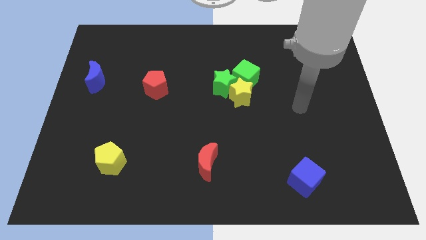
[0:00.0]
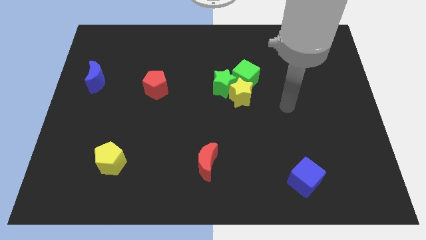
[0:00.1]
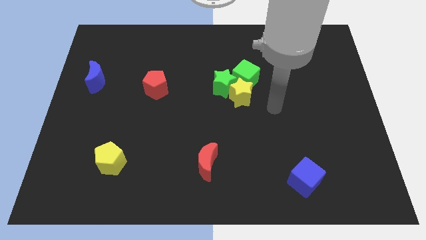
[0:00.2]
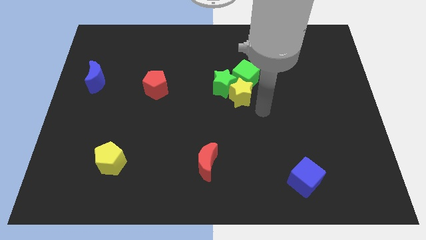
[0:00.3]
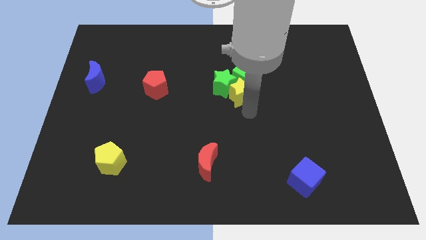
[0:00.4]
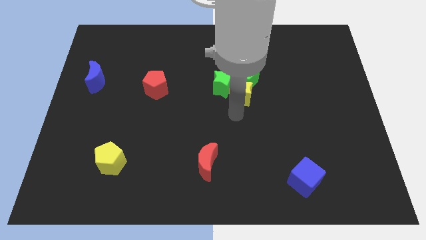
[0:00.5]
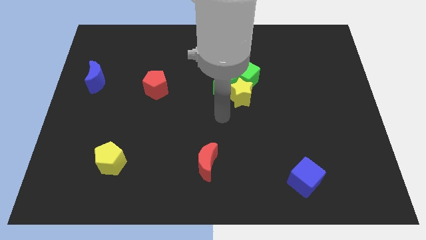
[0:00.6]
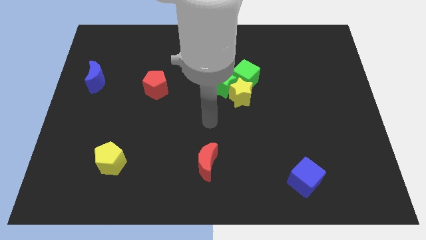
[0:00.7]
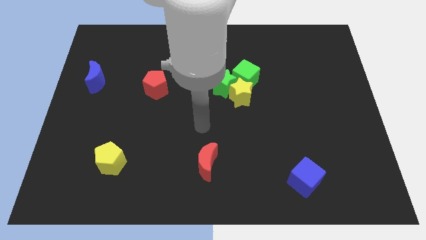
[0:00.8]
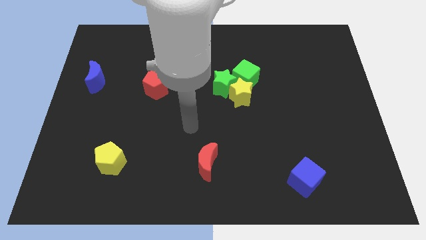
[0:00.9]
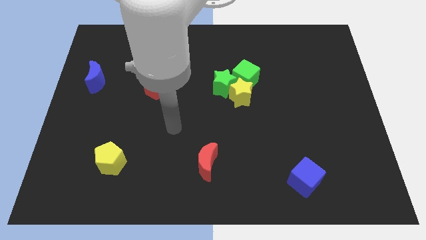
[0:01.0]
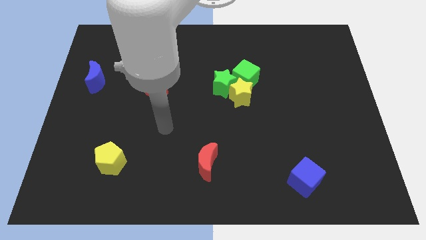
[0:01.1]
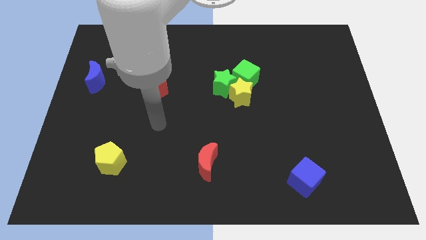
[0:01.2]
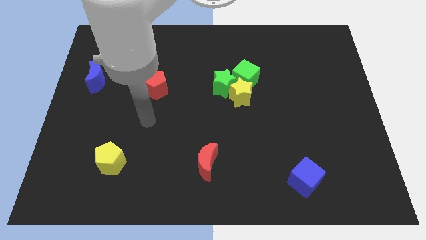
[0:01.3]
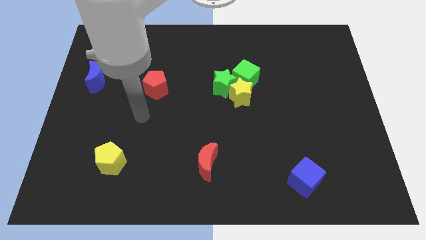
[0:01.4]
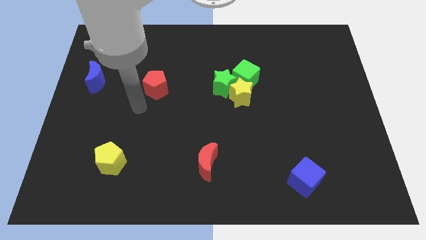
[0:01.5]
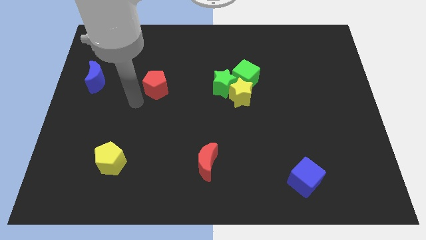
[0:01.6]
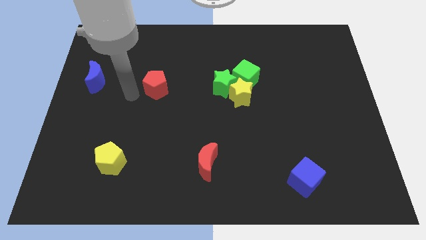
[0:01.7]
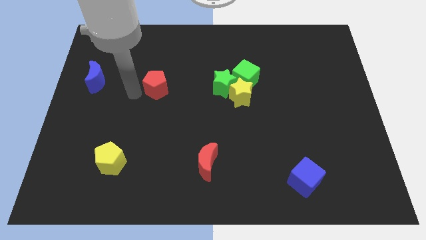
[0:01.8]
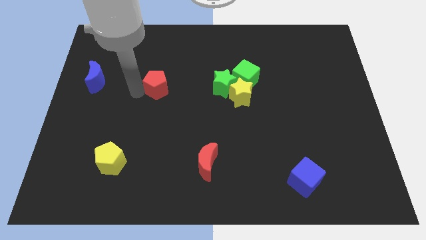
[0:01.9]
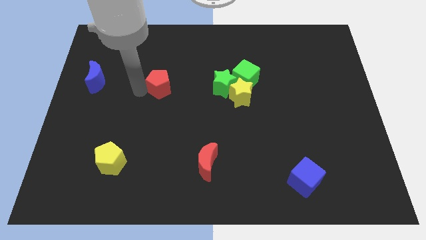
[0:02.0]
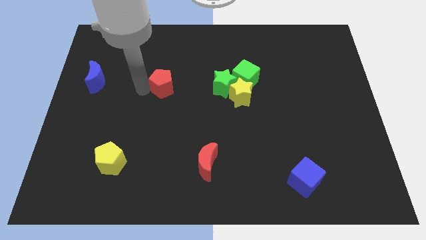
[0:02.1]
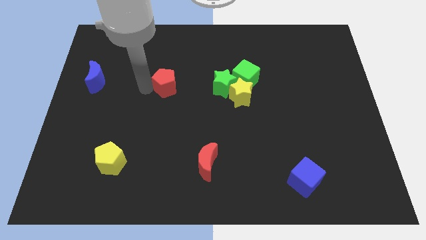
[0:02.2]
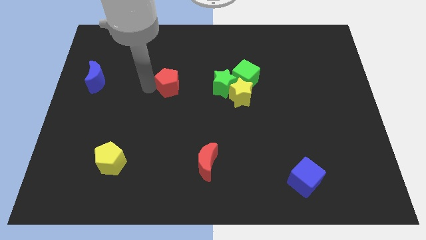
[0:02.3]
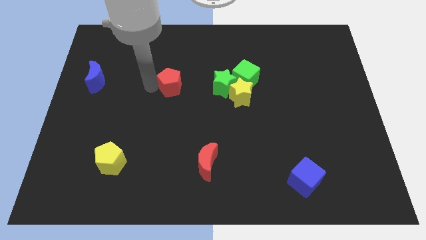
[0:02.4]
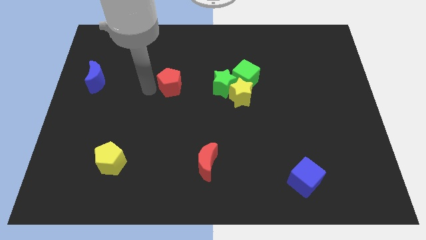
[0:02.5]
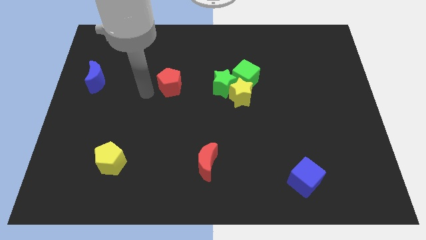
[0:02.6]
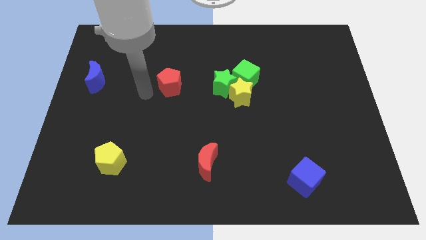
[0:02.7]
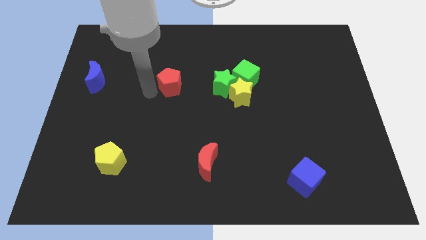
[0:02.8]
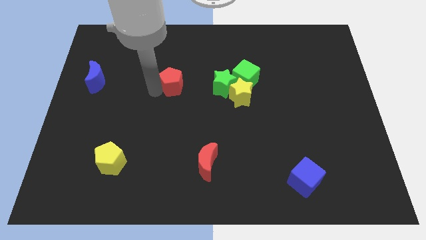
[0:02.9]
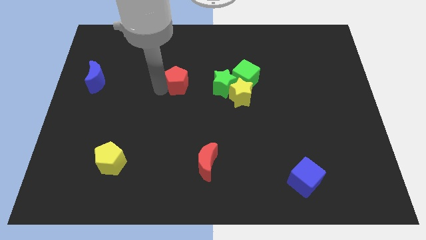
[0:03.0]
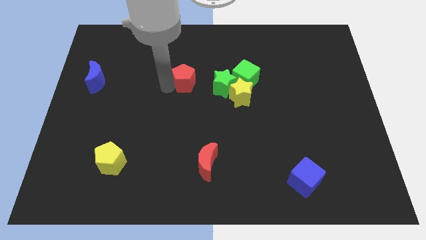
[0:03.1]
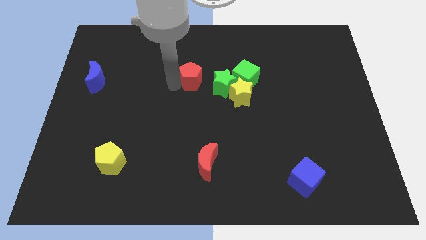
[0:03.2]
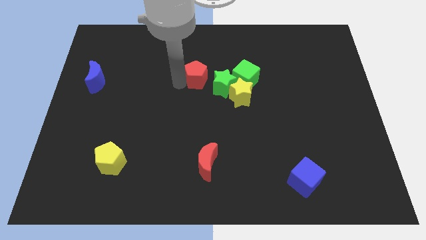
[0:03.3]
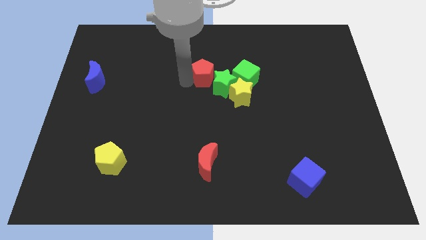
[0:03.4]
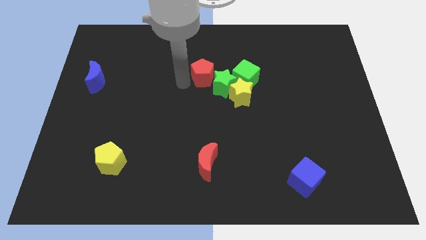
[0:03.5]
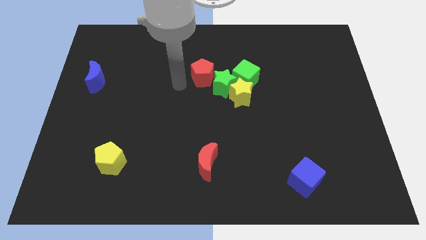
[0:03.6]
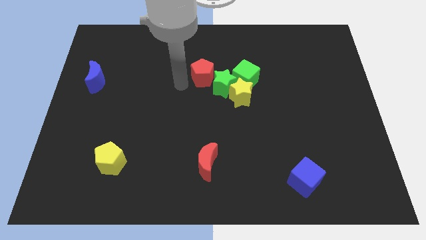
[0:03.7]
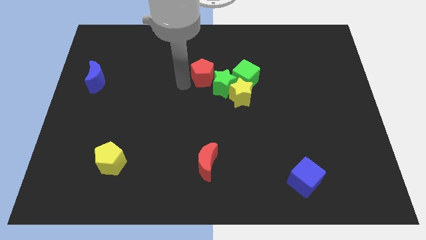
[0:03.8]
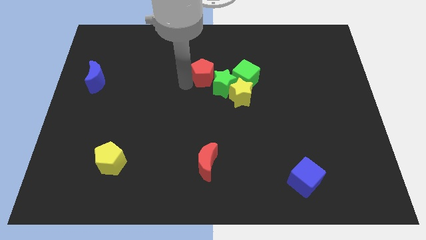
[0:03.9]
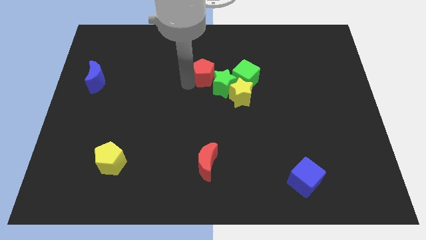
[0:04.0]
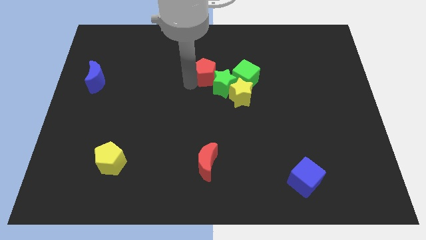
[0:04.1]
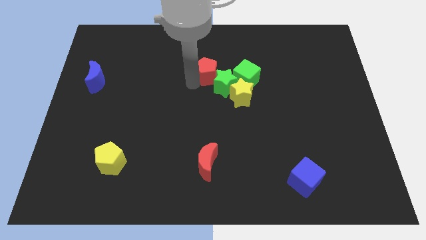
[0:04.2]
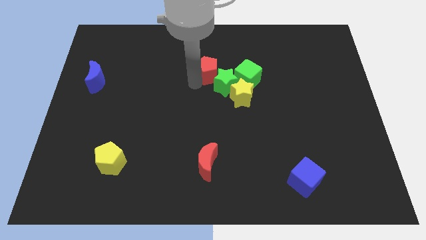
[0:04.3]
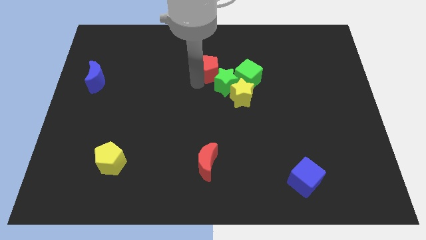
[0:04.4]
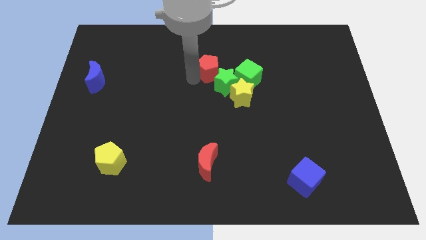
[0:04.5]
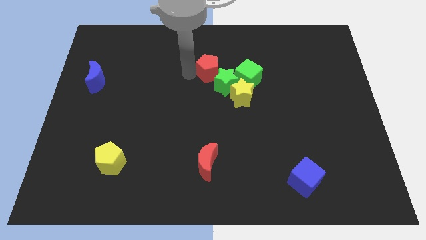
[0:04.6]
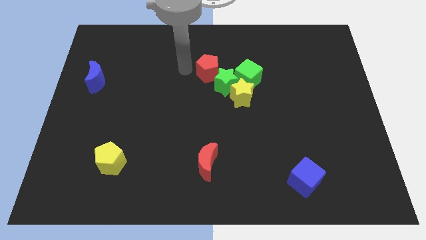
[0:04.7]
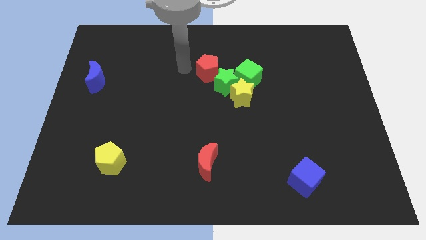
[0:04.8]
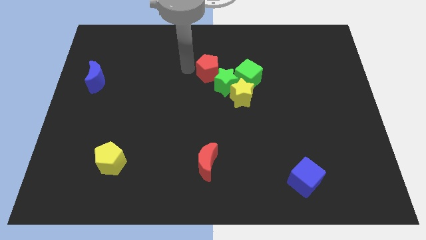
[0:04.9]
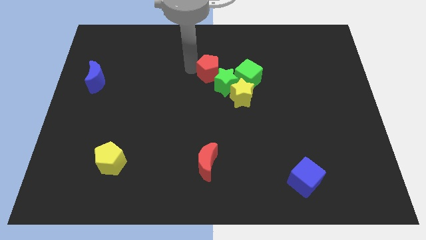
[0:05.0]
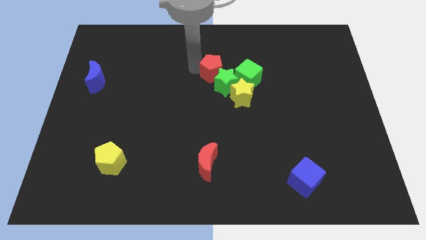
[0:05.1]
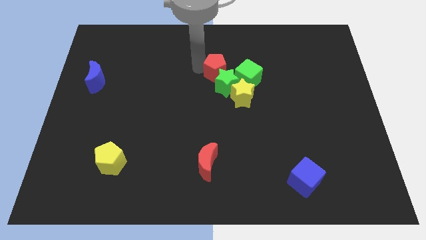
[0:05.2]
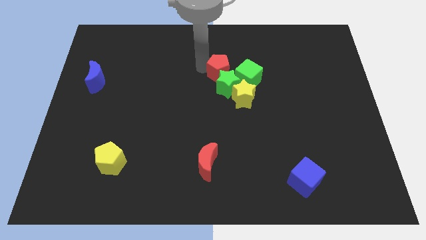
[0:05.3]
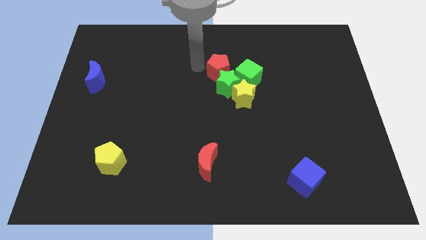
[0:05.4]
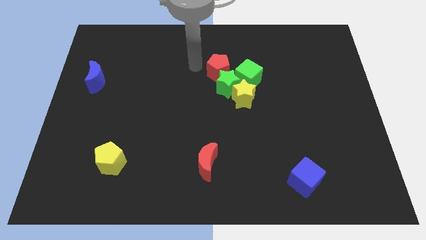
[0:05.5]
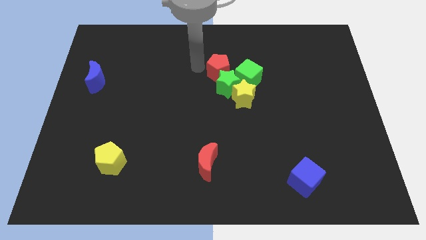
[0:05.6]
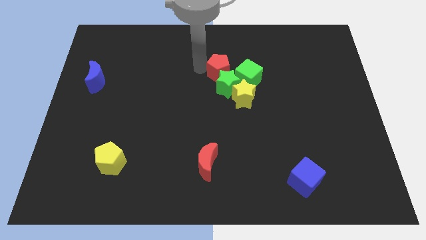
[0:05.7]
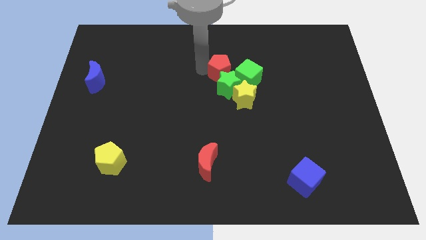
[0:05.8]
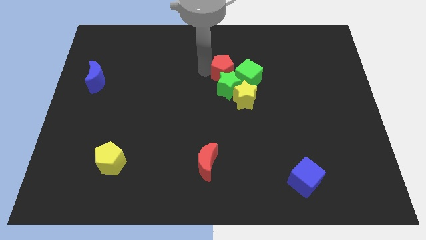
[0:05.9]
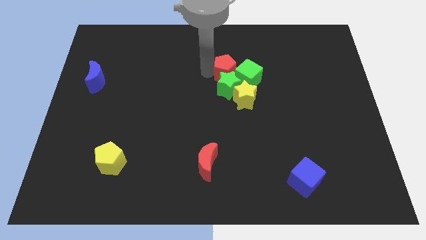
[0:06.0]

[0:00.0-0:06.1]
put the red pentagon towards the green cube

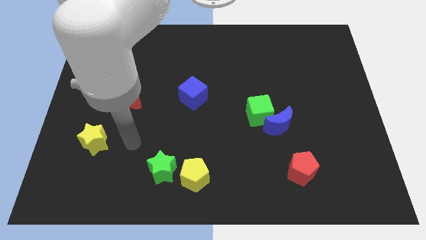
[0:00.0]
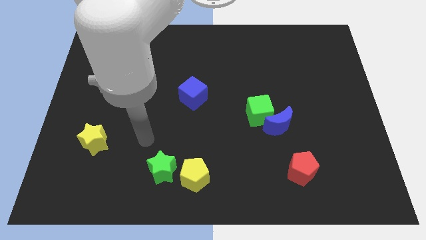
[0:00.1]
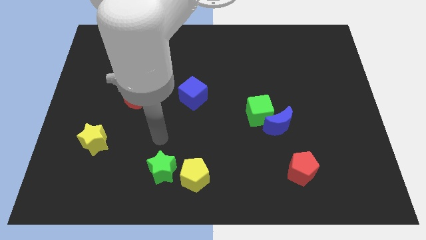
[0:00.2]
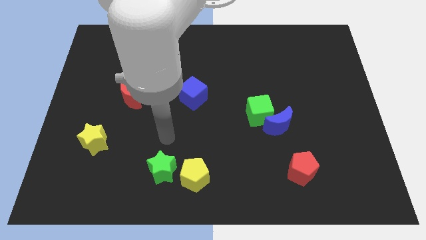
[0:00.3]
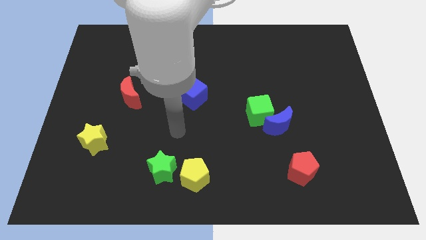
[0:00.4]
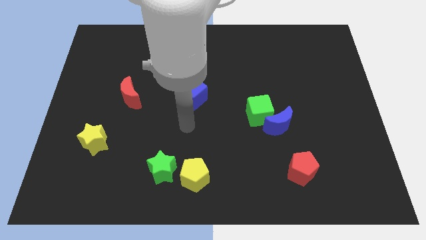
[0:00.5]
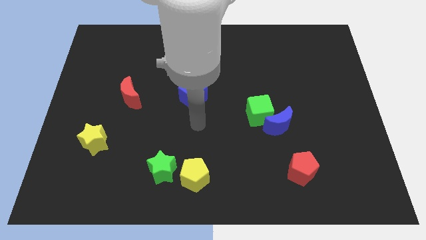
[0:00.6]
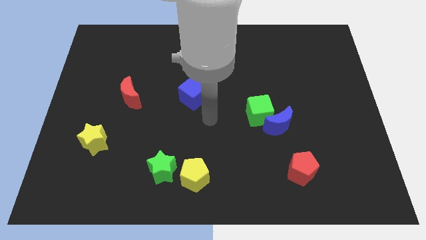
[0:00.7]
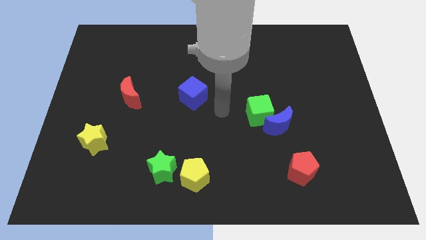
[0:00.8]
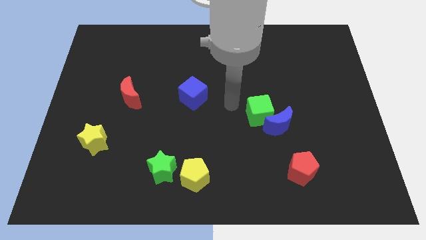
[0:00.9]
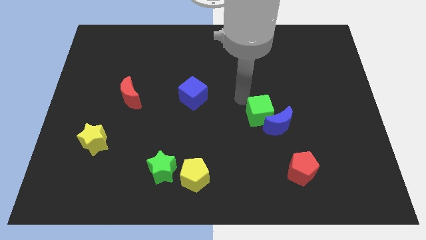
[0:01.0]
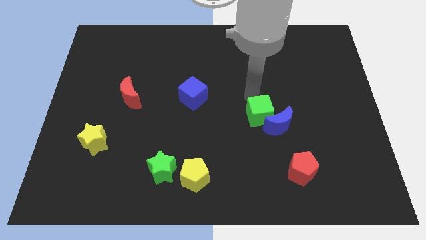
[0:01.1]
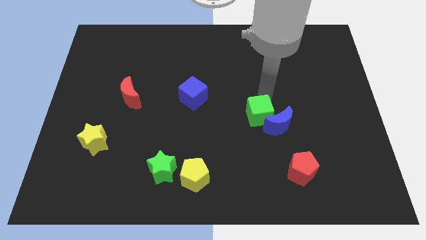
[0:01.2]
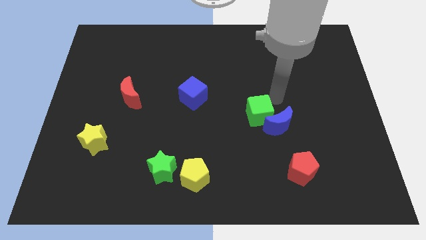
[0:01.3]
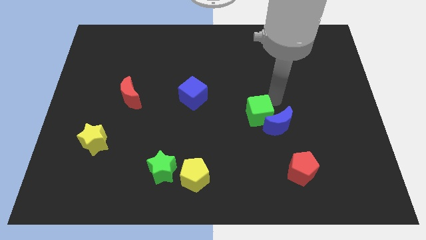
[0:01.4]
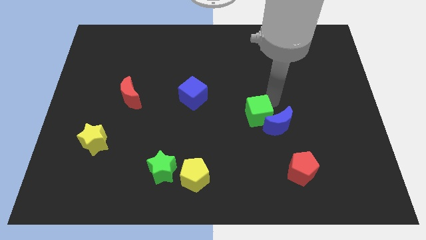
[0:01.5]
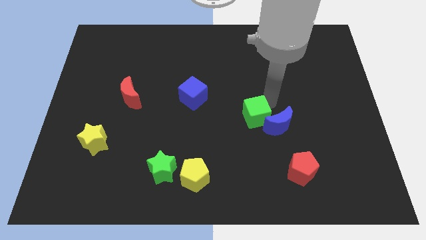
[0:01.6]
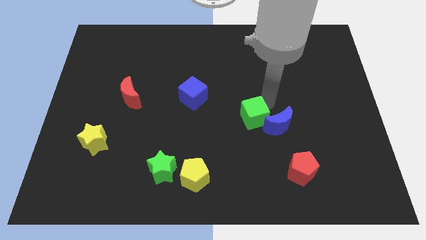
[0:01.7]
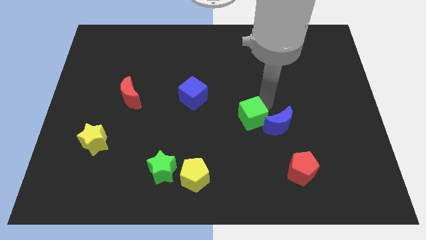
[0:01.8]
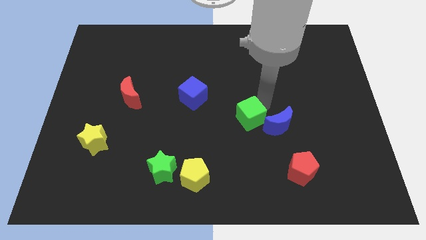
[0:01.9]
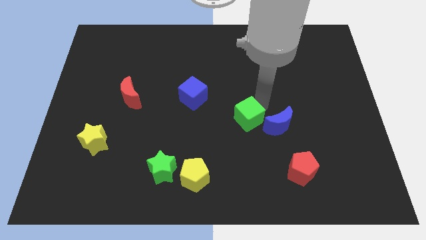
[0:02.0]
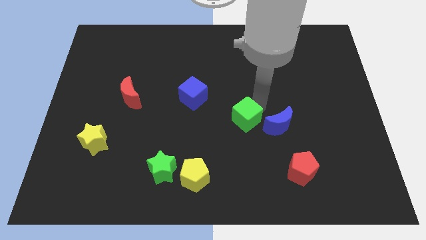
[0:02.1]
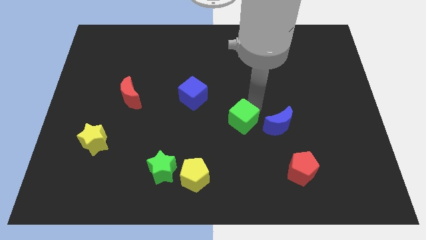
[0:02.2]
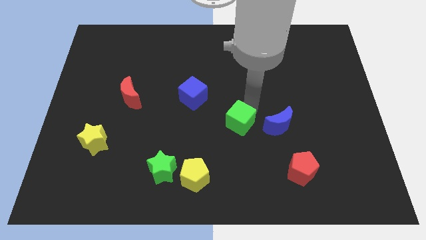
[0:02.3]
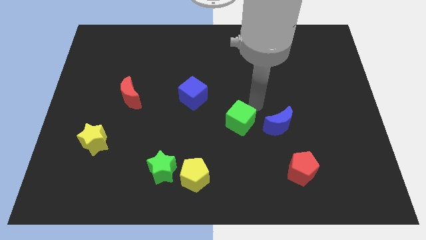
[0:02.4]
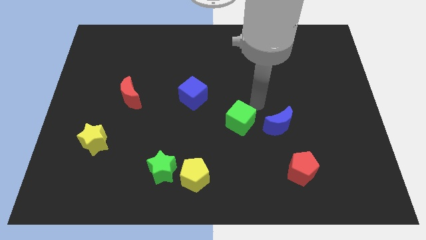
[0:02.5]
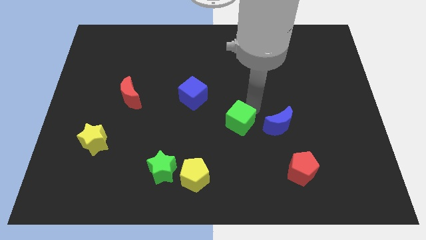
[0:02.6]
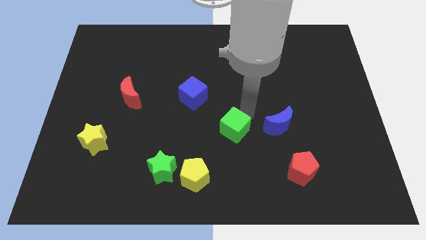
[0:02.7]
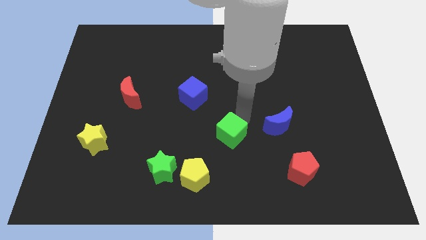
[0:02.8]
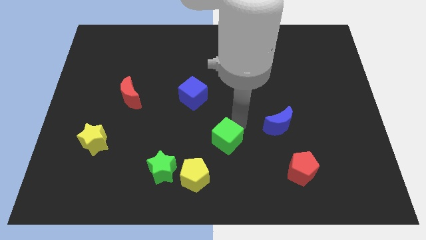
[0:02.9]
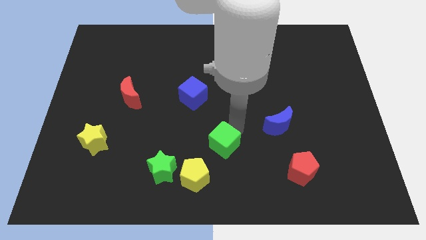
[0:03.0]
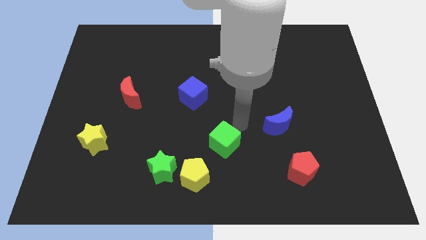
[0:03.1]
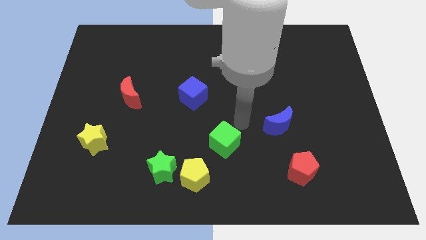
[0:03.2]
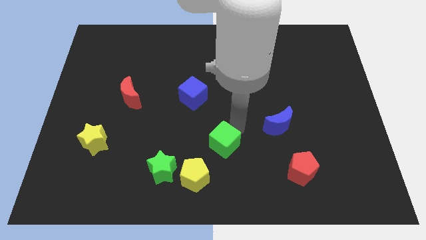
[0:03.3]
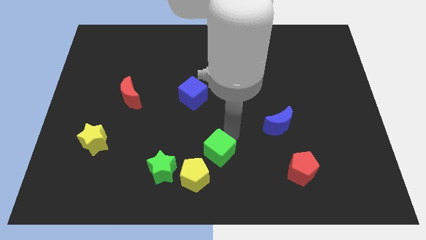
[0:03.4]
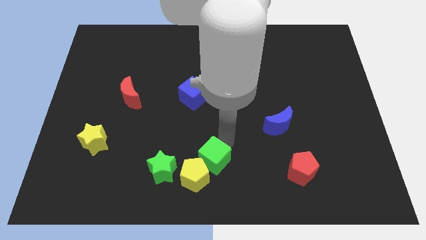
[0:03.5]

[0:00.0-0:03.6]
push the green cube next to the yellow pentagon
